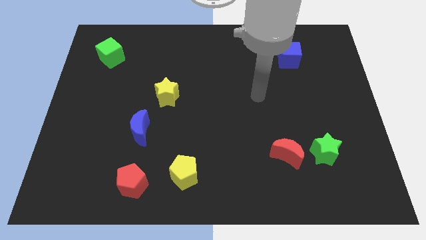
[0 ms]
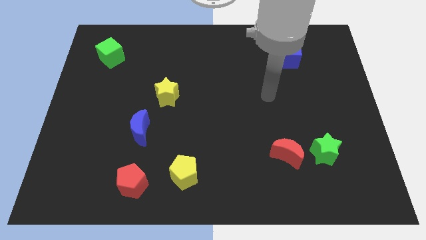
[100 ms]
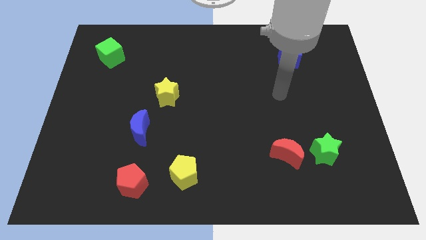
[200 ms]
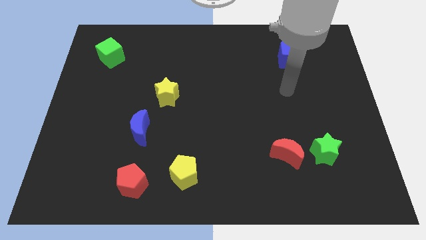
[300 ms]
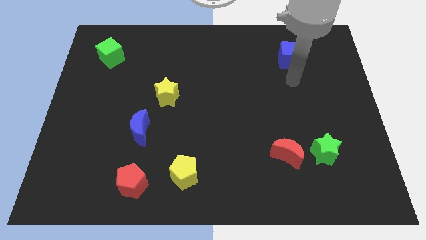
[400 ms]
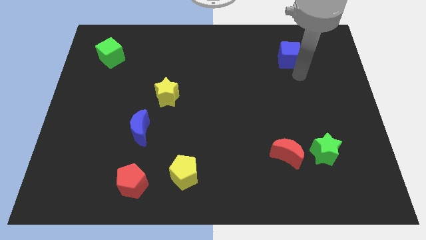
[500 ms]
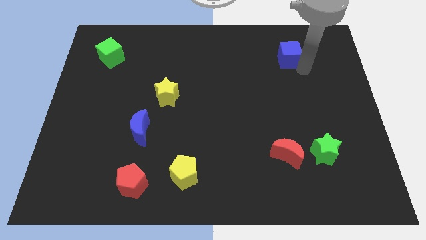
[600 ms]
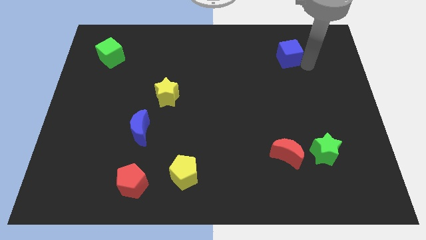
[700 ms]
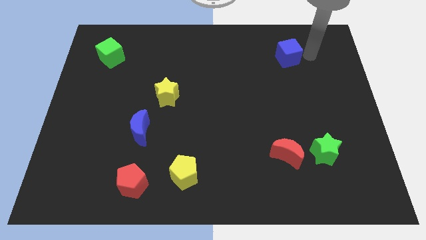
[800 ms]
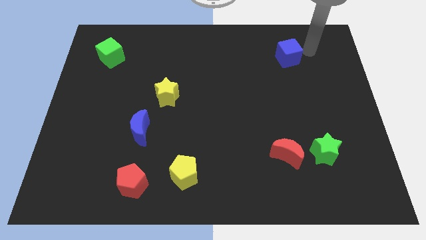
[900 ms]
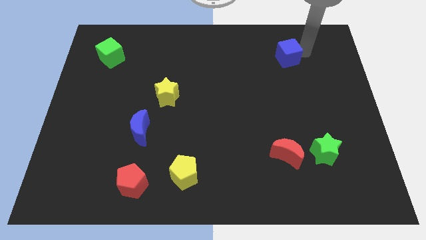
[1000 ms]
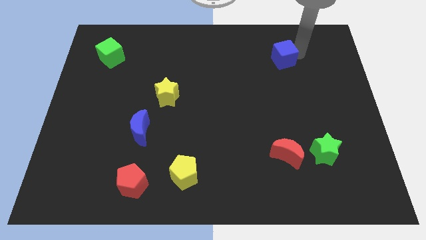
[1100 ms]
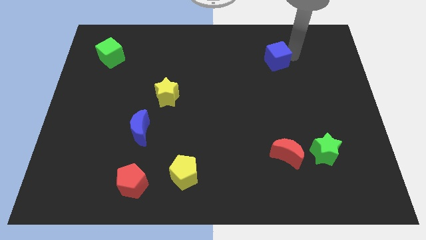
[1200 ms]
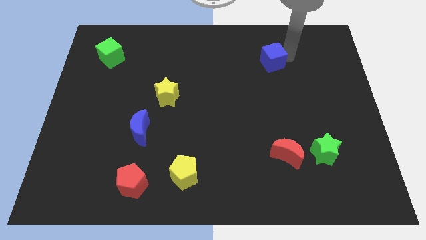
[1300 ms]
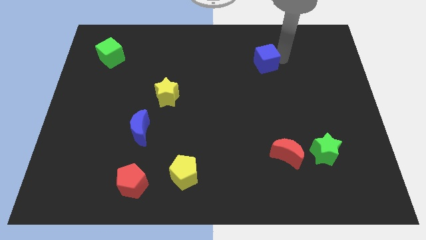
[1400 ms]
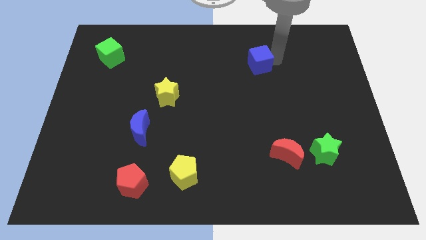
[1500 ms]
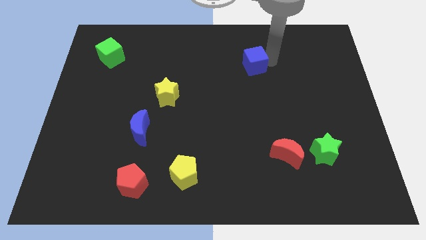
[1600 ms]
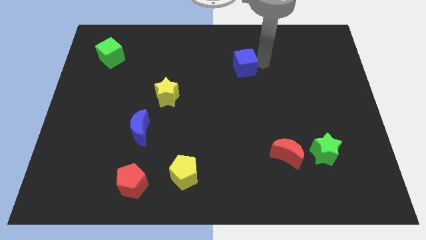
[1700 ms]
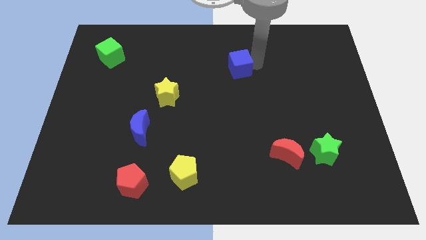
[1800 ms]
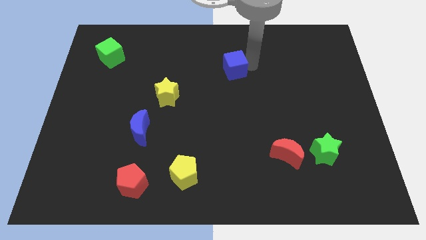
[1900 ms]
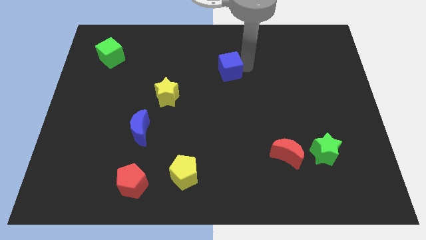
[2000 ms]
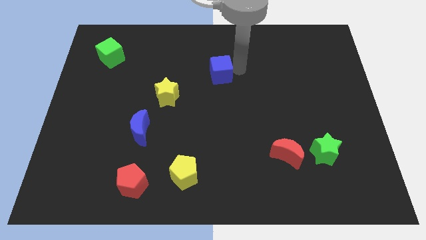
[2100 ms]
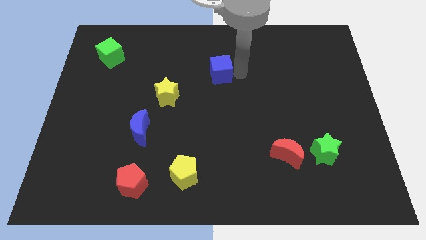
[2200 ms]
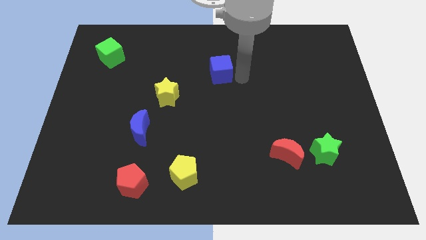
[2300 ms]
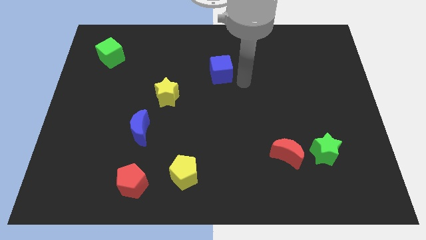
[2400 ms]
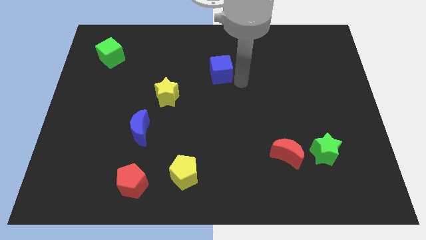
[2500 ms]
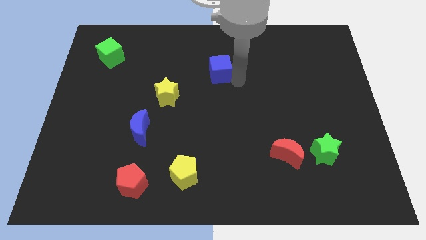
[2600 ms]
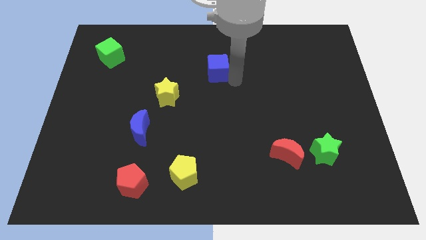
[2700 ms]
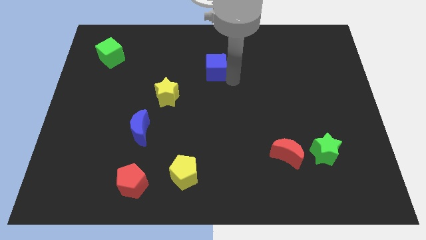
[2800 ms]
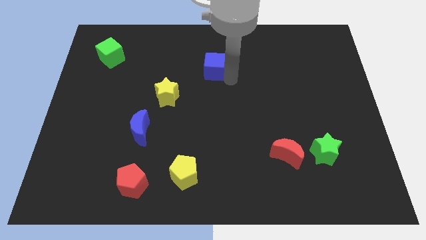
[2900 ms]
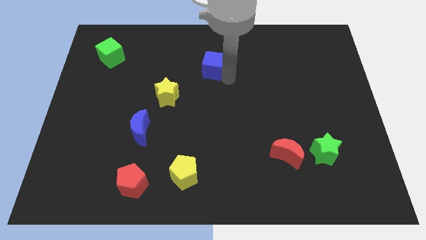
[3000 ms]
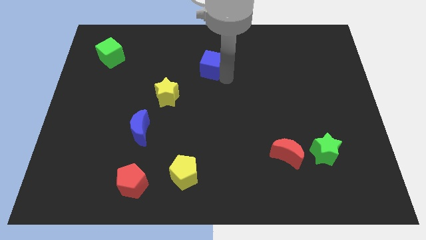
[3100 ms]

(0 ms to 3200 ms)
push the blue cube to the left

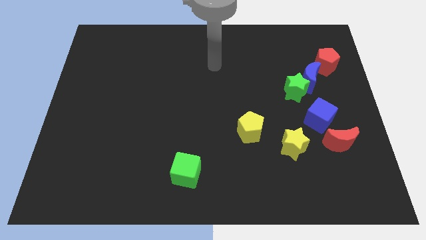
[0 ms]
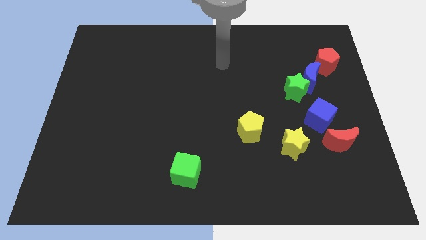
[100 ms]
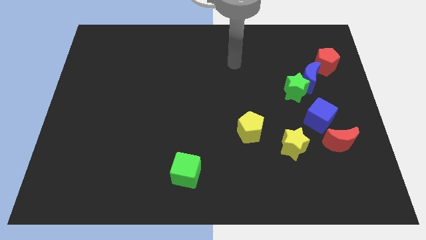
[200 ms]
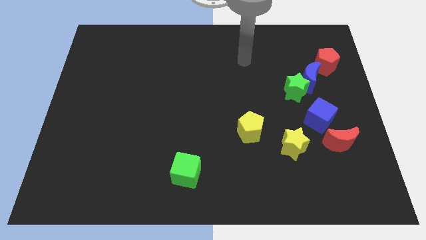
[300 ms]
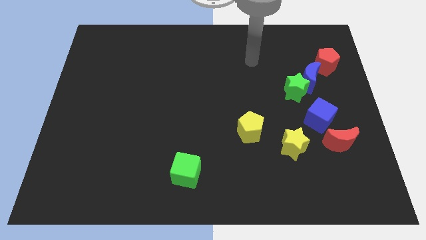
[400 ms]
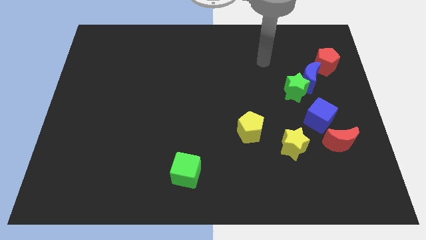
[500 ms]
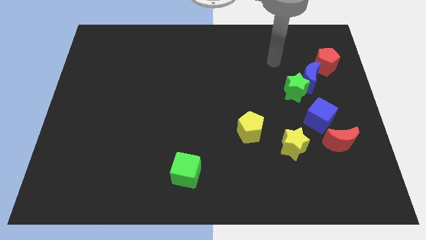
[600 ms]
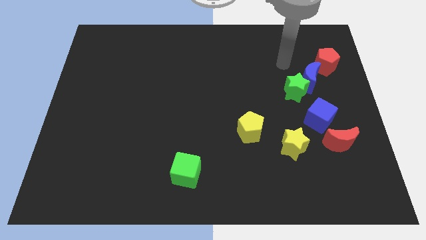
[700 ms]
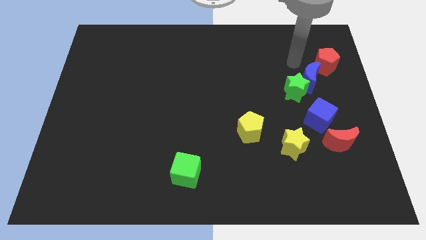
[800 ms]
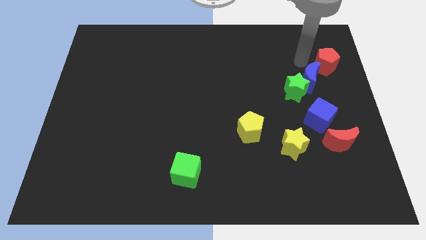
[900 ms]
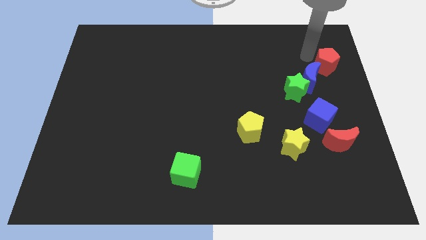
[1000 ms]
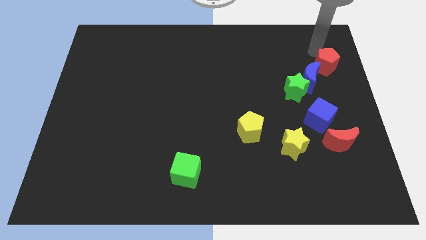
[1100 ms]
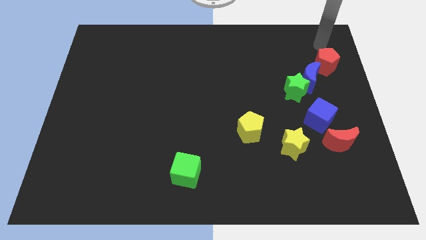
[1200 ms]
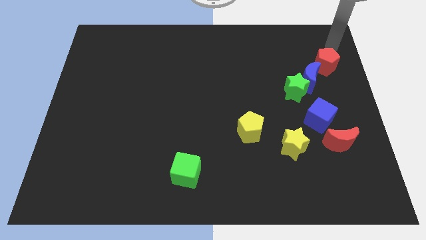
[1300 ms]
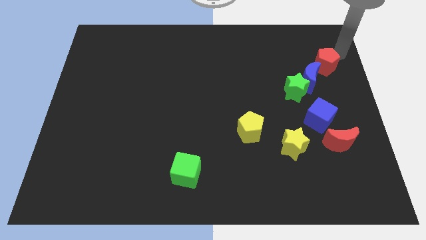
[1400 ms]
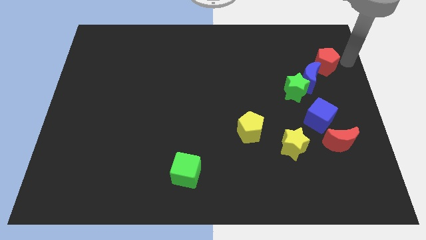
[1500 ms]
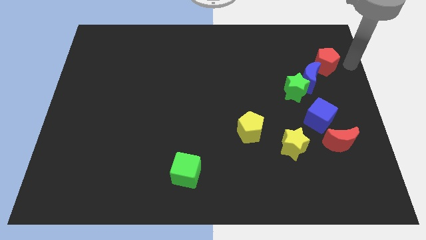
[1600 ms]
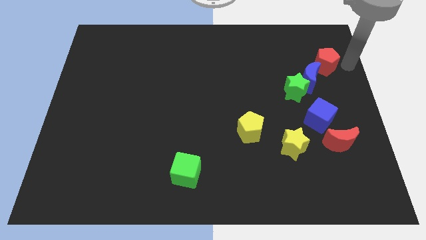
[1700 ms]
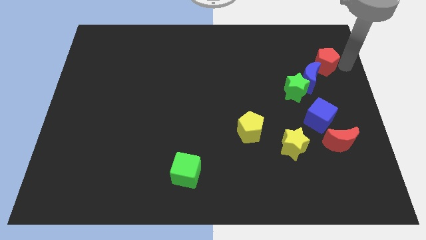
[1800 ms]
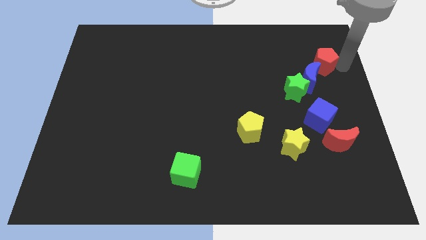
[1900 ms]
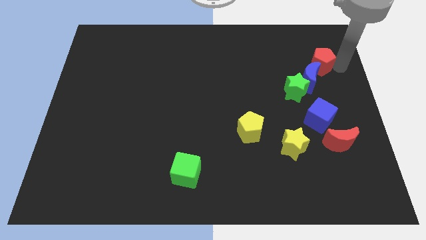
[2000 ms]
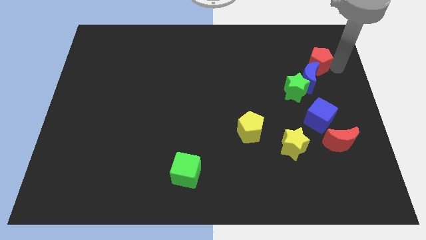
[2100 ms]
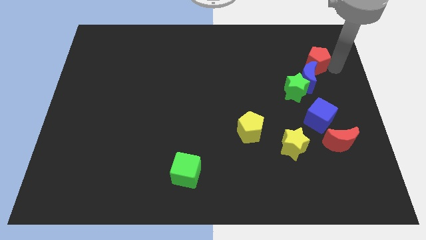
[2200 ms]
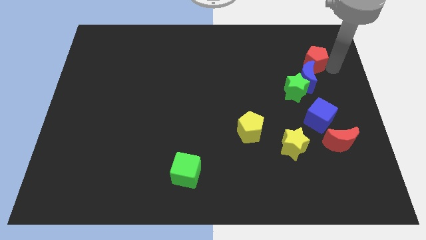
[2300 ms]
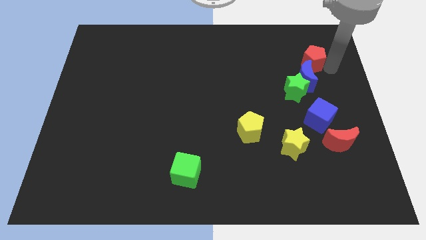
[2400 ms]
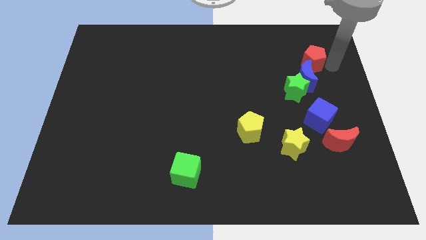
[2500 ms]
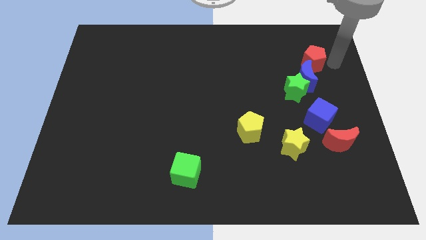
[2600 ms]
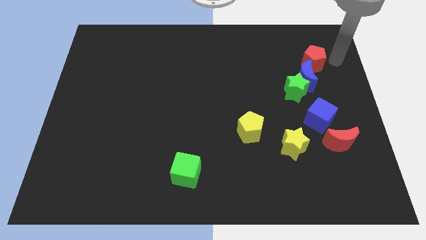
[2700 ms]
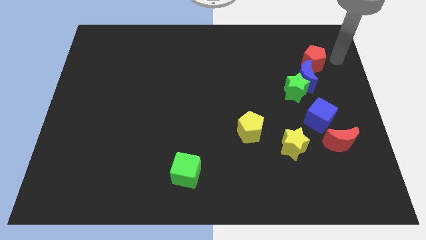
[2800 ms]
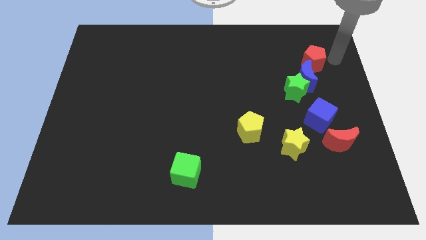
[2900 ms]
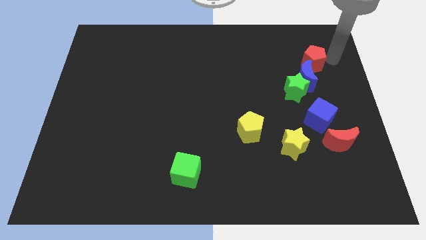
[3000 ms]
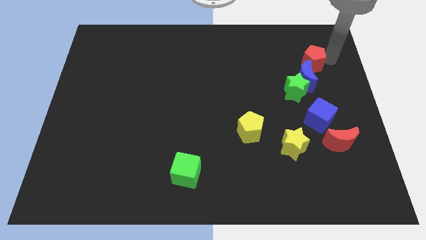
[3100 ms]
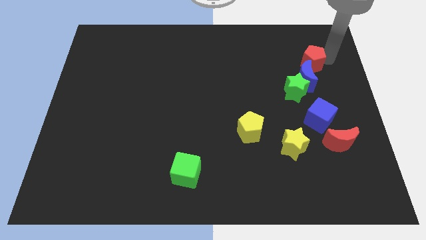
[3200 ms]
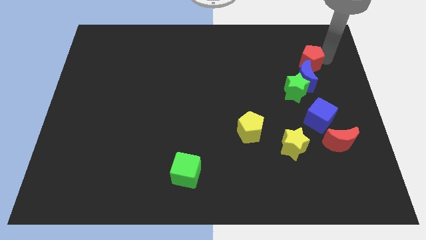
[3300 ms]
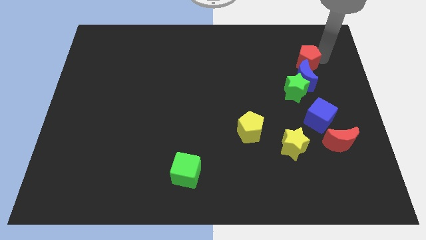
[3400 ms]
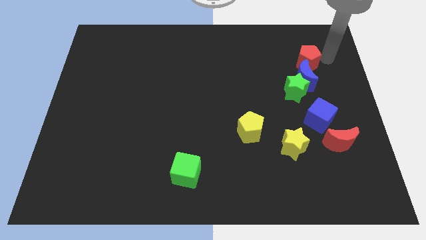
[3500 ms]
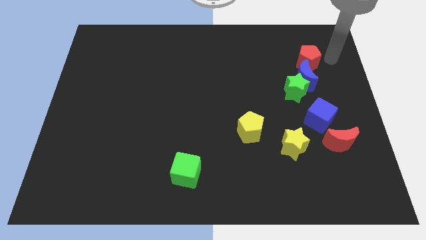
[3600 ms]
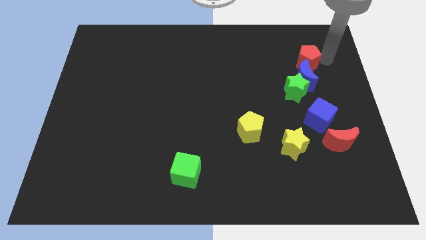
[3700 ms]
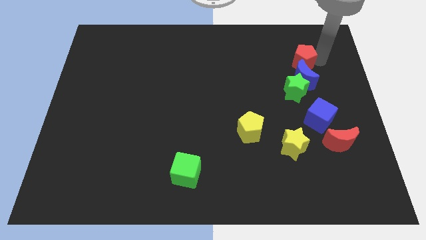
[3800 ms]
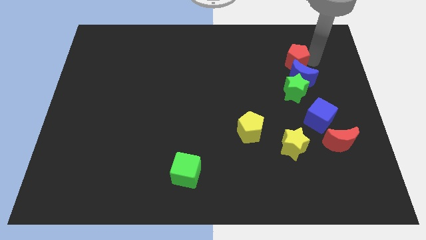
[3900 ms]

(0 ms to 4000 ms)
push the red pentagon a little bit to the left

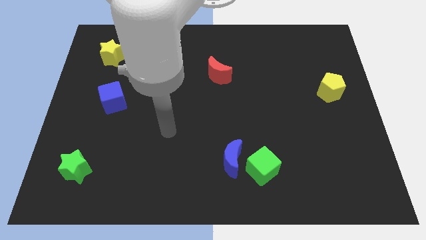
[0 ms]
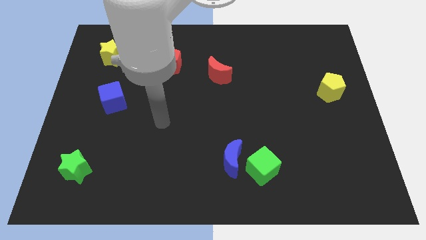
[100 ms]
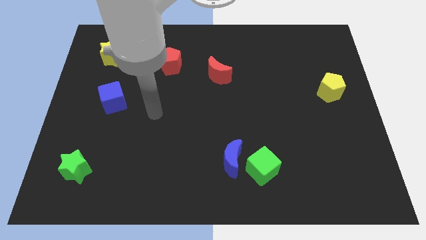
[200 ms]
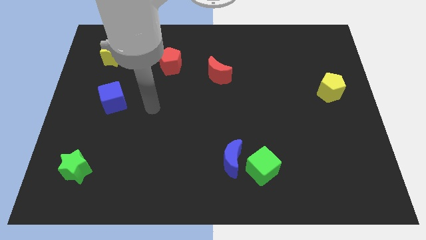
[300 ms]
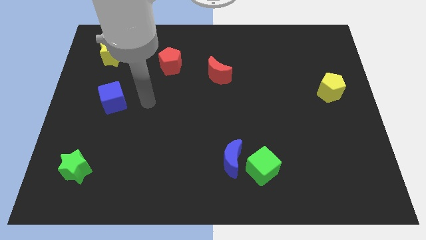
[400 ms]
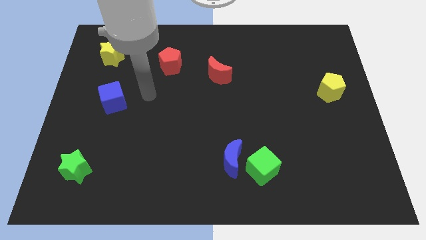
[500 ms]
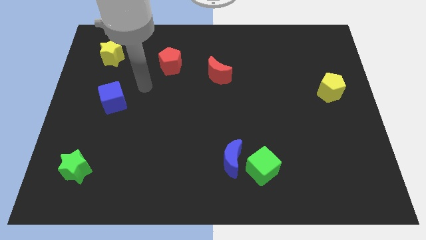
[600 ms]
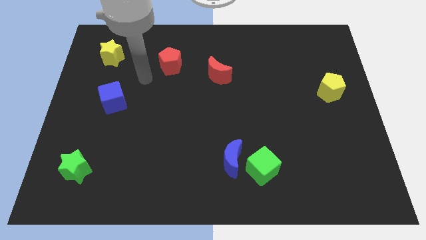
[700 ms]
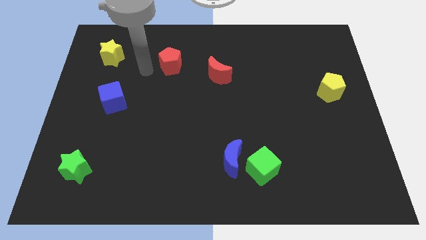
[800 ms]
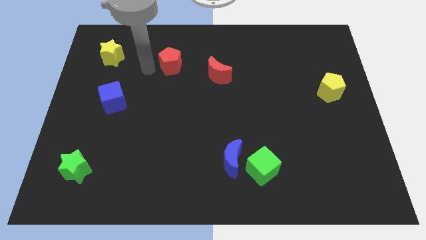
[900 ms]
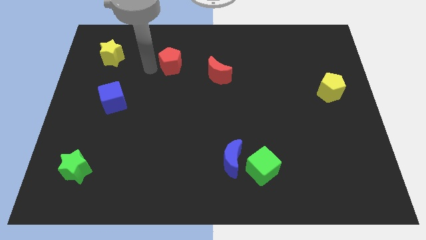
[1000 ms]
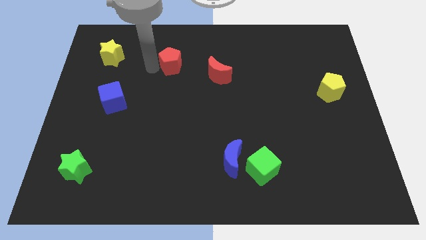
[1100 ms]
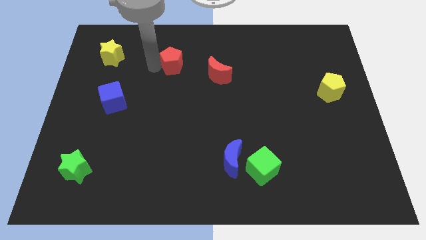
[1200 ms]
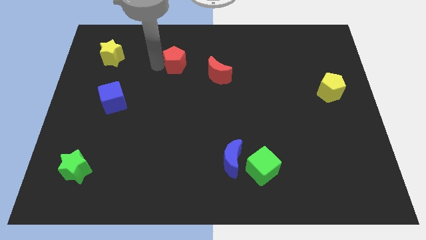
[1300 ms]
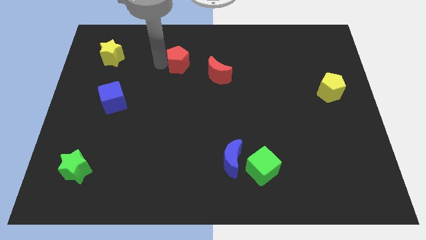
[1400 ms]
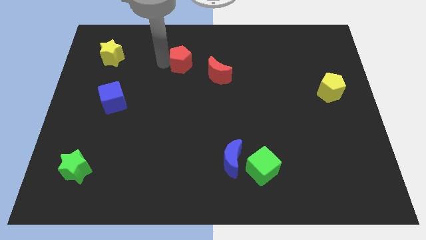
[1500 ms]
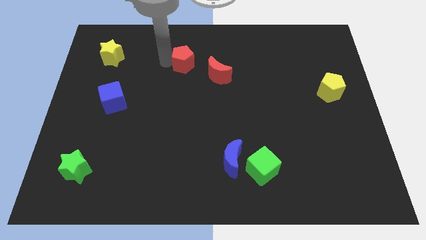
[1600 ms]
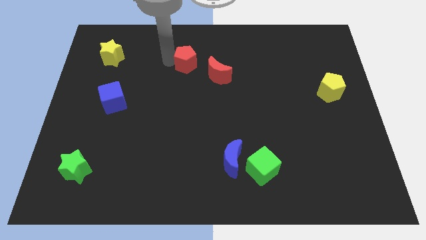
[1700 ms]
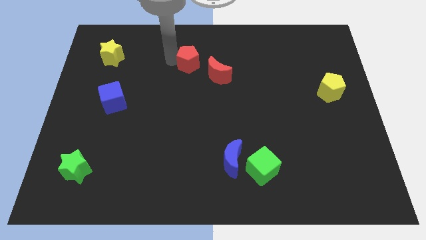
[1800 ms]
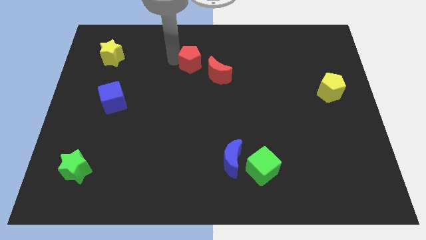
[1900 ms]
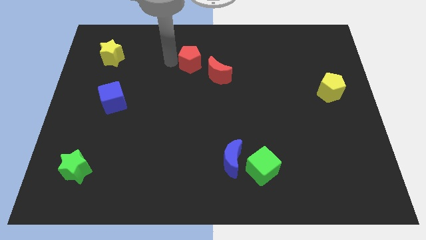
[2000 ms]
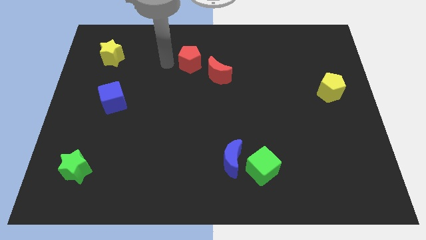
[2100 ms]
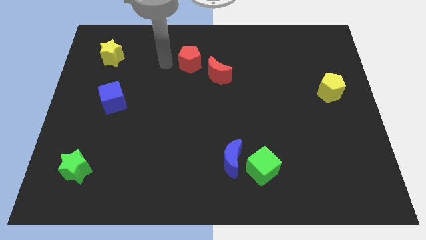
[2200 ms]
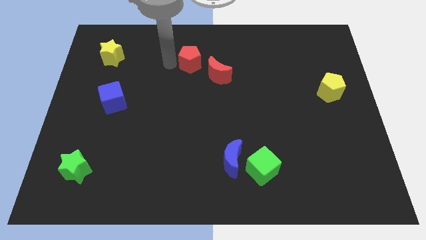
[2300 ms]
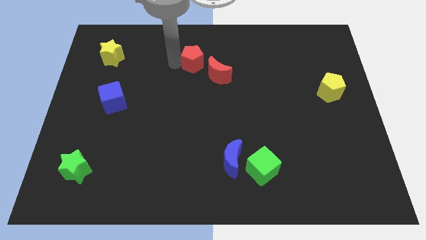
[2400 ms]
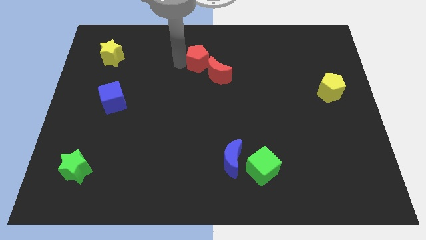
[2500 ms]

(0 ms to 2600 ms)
slide the red pentagon somewhat to the right
